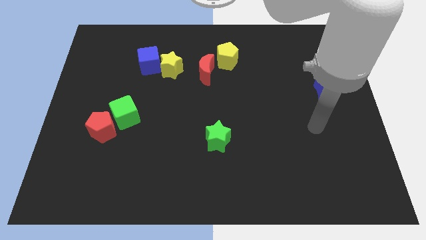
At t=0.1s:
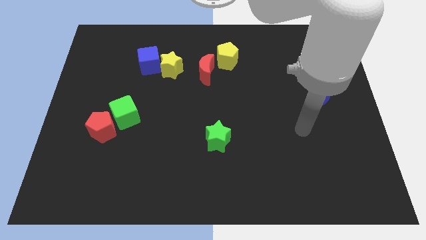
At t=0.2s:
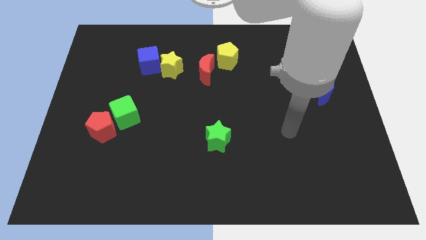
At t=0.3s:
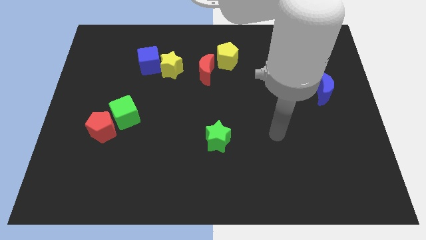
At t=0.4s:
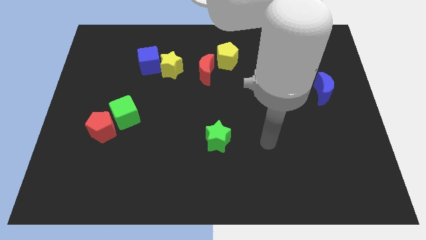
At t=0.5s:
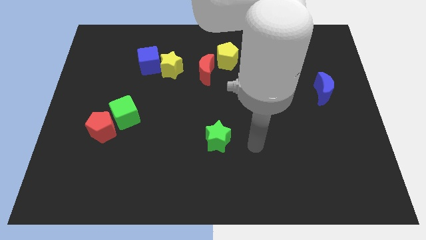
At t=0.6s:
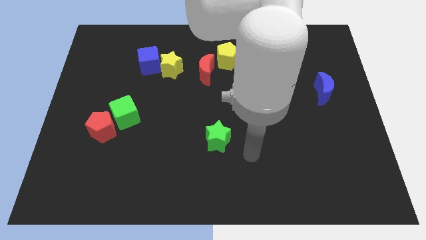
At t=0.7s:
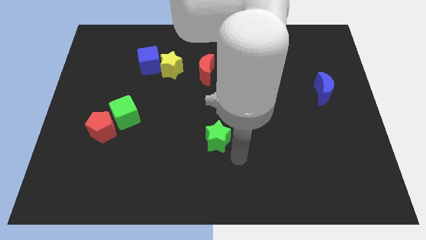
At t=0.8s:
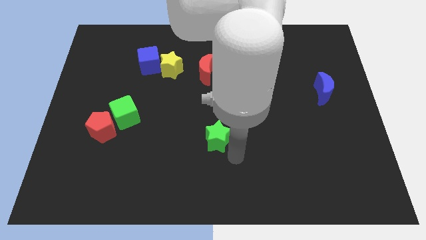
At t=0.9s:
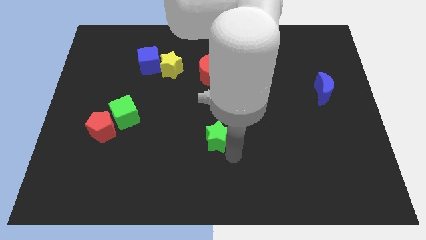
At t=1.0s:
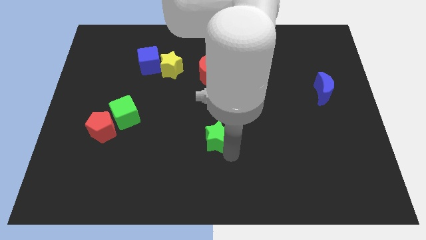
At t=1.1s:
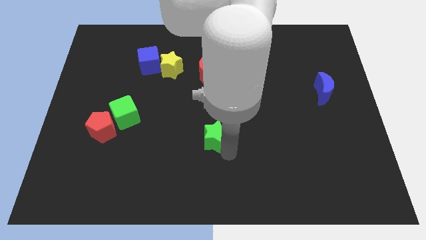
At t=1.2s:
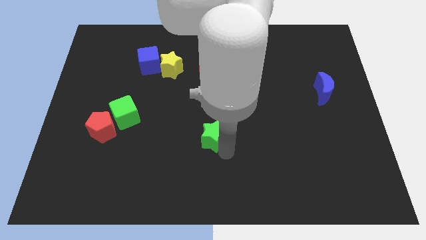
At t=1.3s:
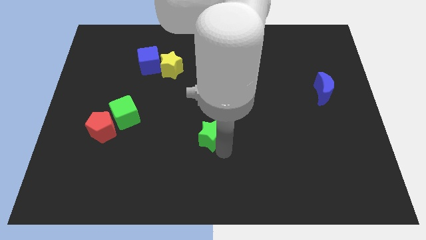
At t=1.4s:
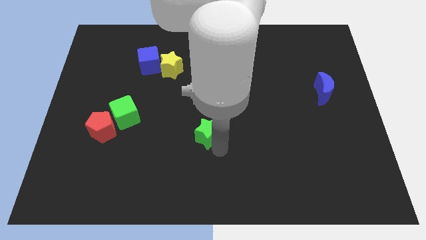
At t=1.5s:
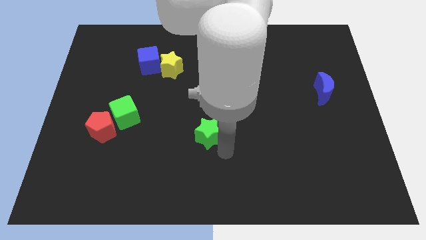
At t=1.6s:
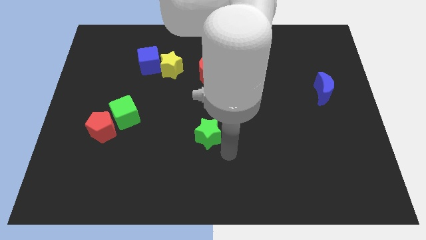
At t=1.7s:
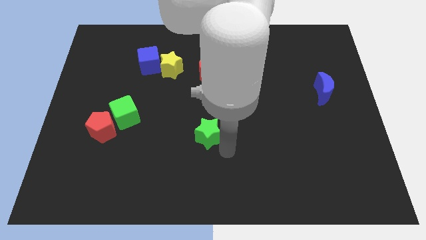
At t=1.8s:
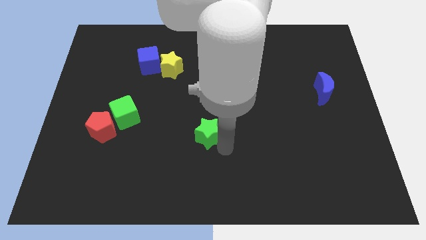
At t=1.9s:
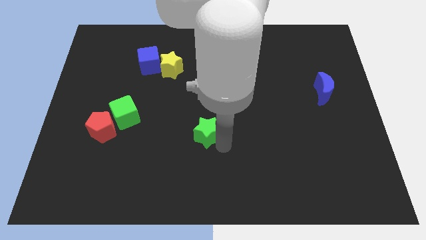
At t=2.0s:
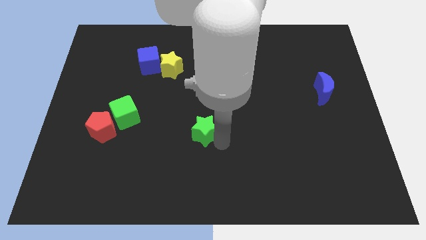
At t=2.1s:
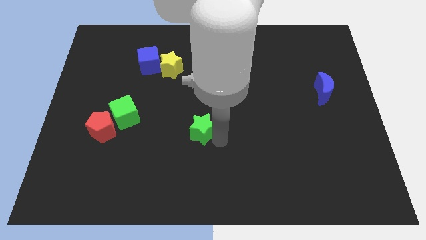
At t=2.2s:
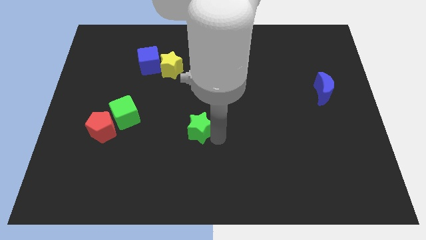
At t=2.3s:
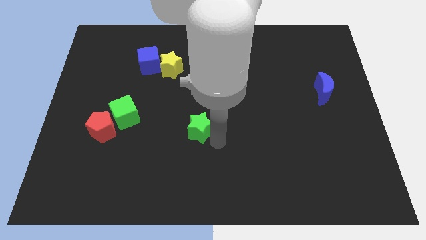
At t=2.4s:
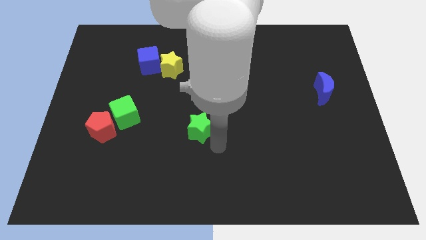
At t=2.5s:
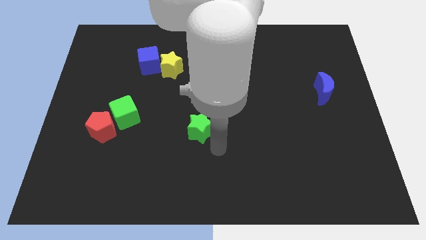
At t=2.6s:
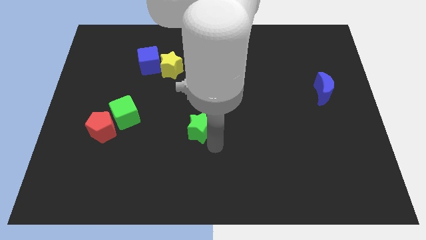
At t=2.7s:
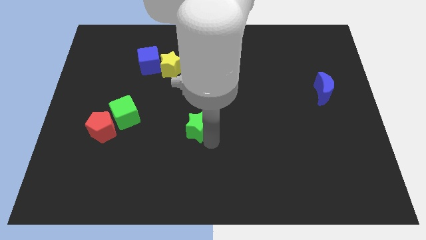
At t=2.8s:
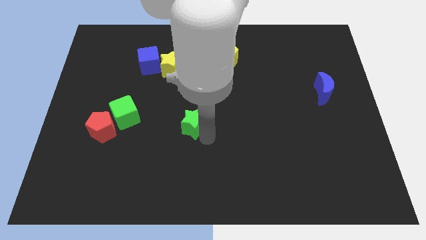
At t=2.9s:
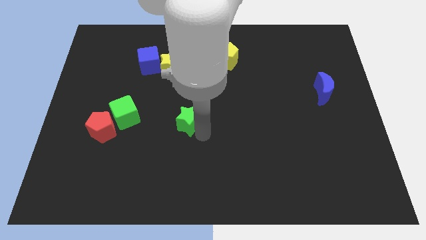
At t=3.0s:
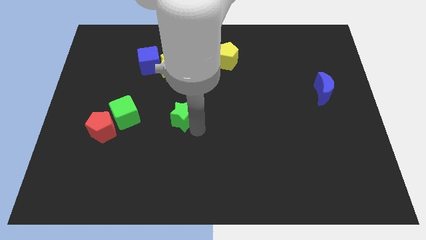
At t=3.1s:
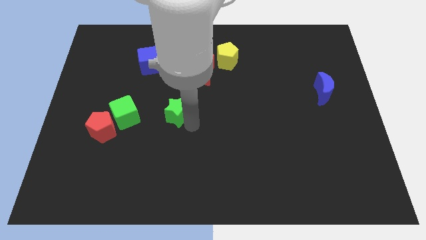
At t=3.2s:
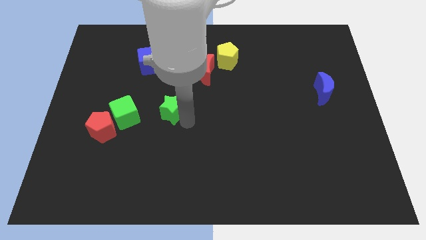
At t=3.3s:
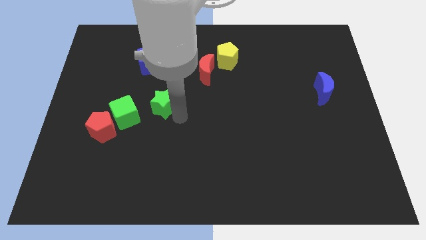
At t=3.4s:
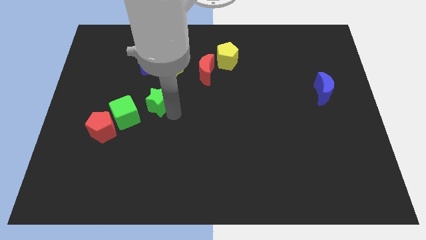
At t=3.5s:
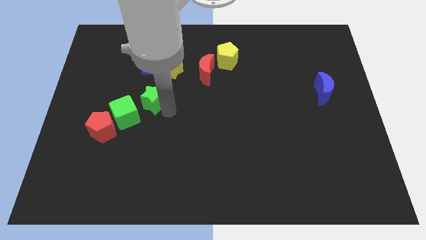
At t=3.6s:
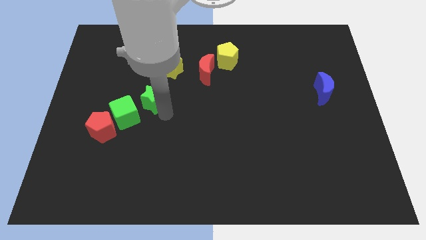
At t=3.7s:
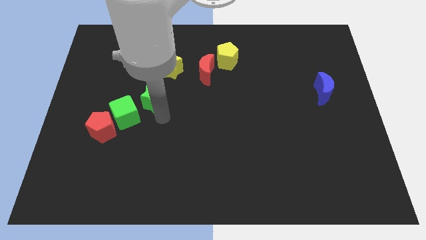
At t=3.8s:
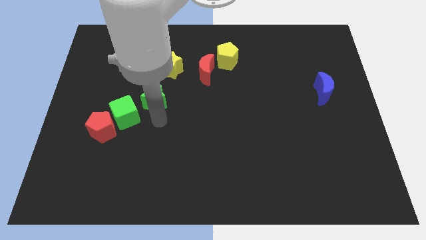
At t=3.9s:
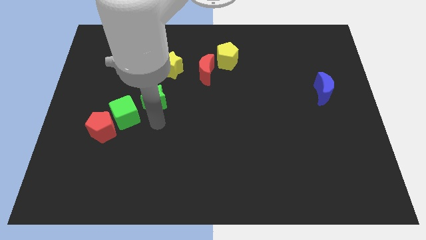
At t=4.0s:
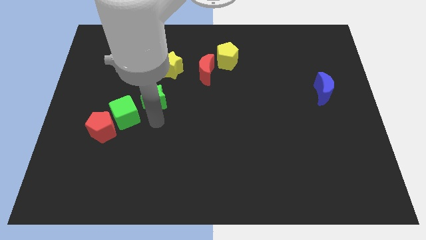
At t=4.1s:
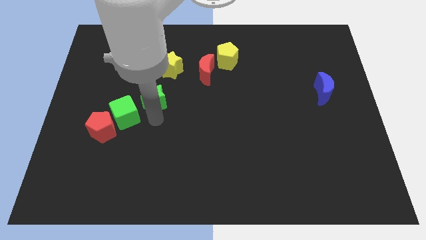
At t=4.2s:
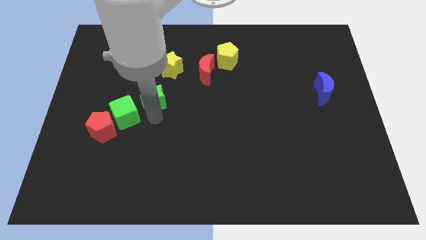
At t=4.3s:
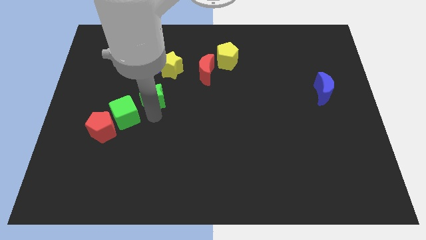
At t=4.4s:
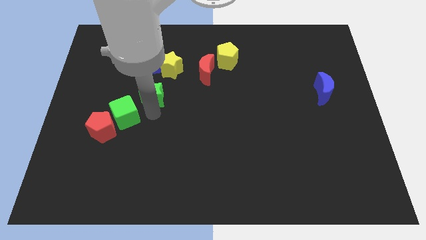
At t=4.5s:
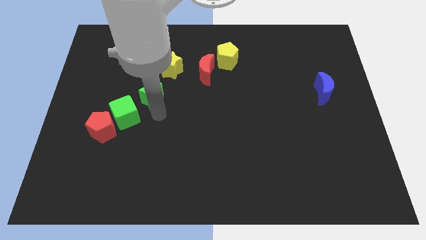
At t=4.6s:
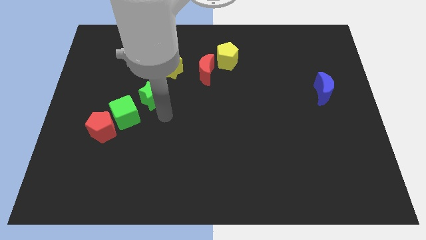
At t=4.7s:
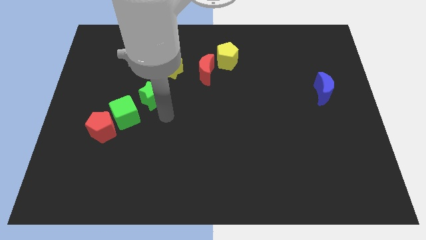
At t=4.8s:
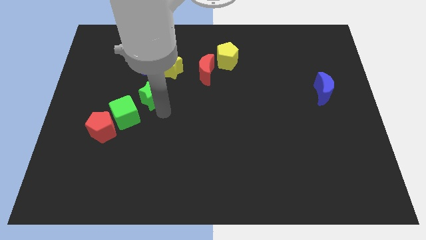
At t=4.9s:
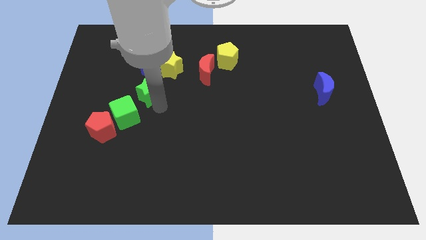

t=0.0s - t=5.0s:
slide the green star upwards and then to the left

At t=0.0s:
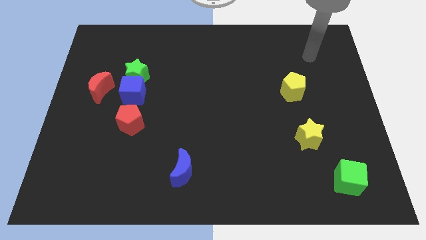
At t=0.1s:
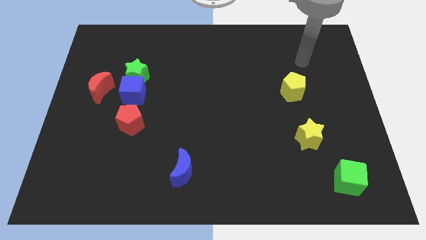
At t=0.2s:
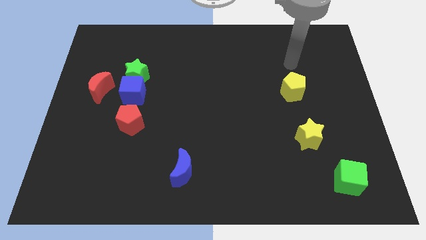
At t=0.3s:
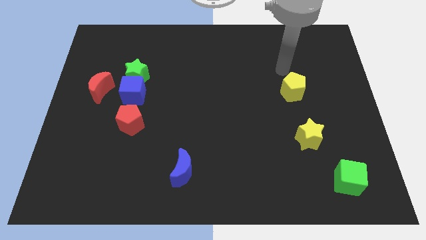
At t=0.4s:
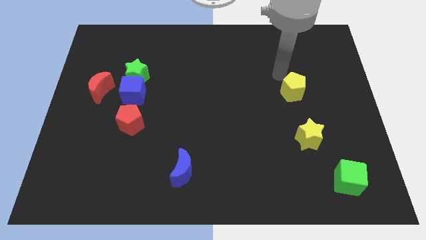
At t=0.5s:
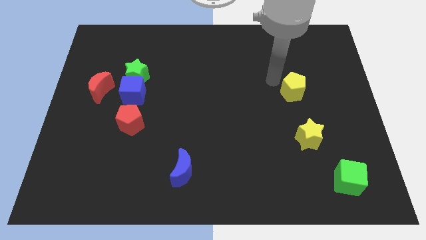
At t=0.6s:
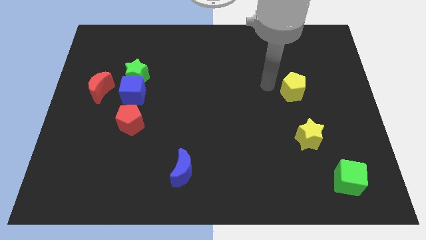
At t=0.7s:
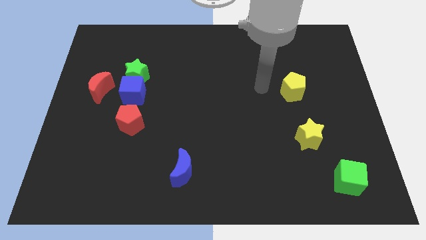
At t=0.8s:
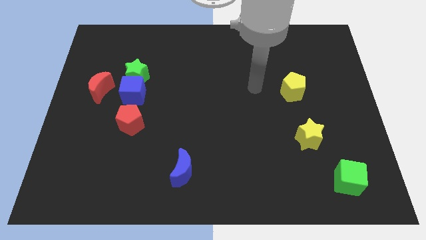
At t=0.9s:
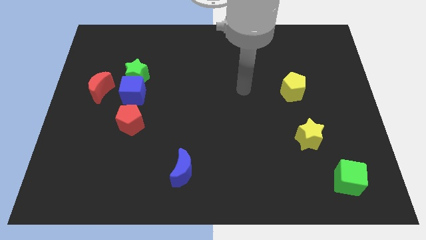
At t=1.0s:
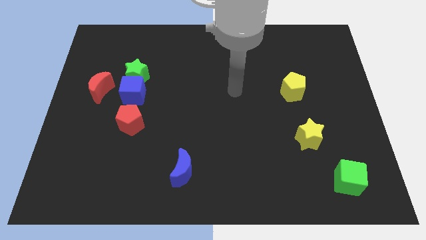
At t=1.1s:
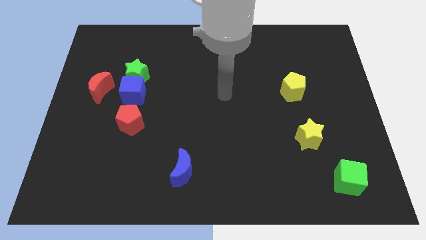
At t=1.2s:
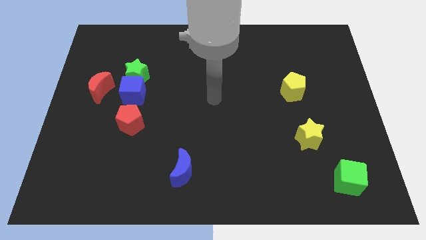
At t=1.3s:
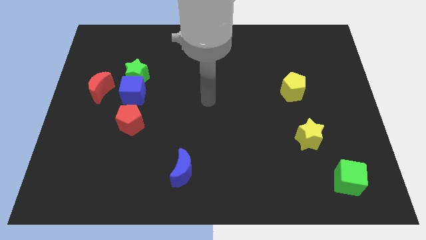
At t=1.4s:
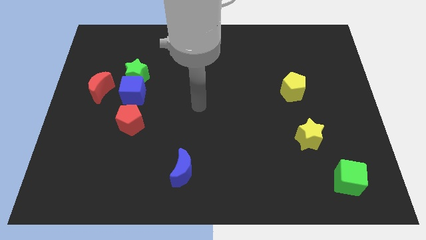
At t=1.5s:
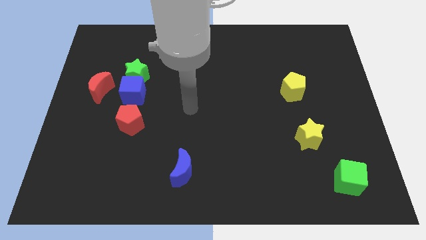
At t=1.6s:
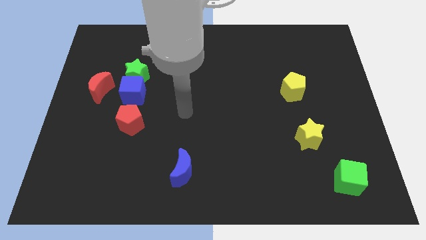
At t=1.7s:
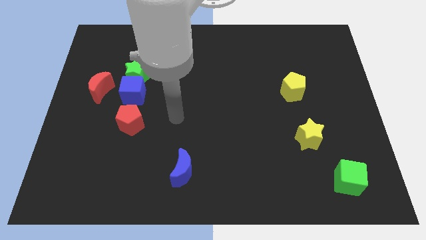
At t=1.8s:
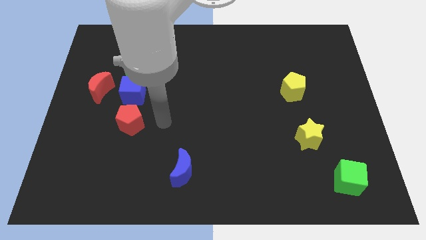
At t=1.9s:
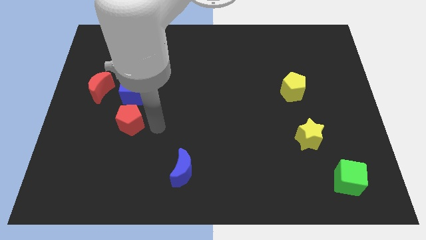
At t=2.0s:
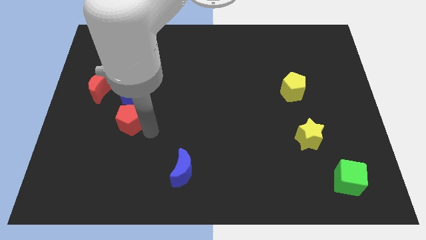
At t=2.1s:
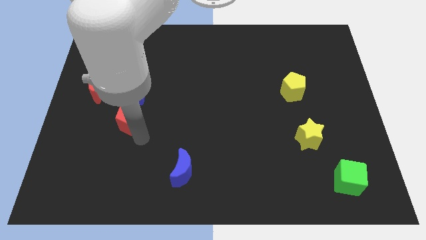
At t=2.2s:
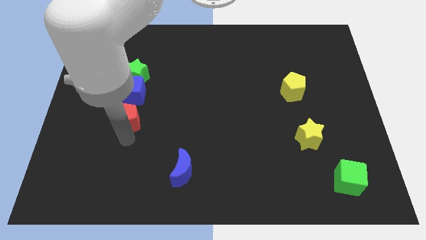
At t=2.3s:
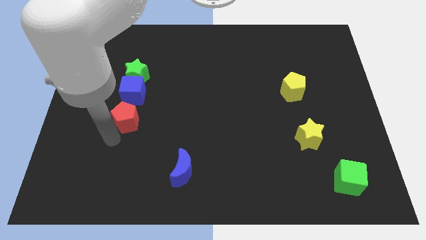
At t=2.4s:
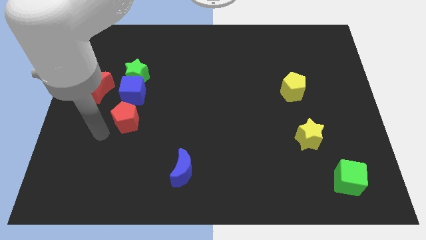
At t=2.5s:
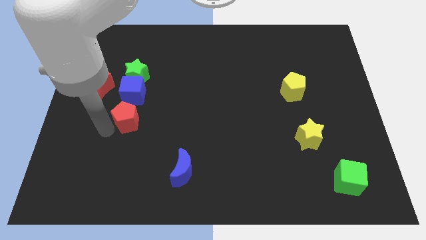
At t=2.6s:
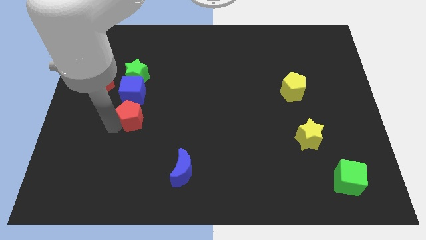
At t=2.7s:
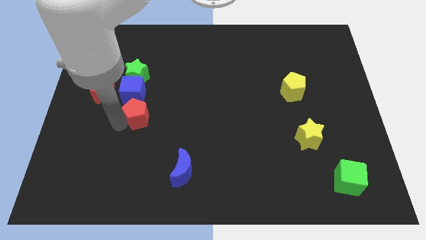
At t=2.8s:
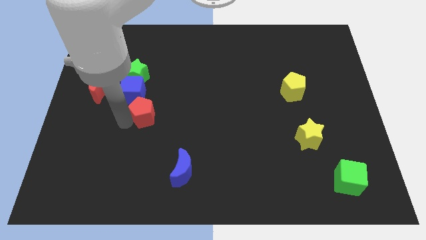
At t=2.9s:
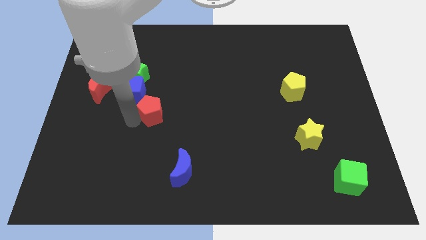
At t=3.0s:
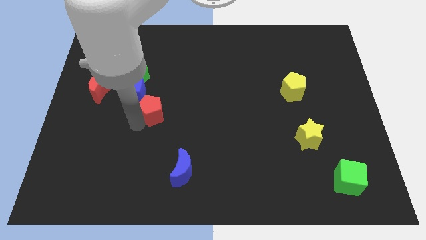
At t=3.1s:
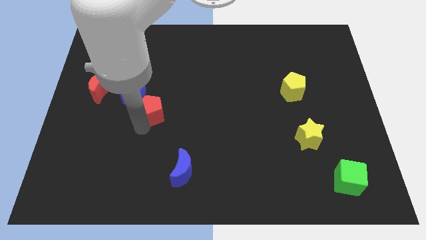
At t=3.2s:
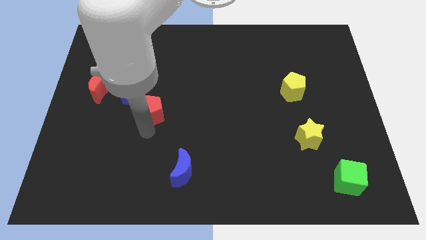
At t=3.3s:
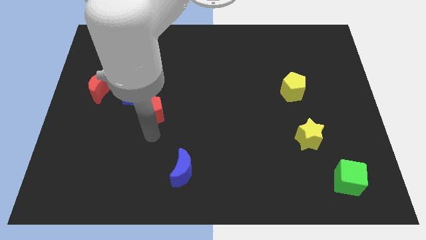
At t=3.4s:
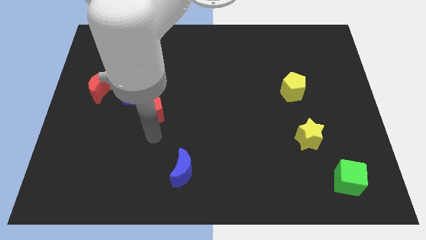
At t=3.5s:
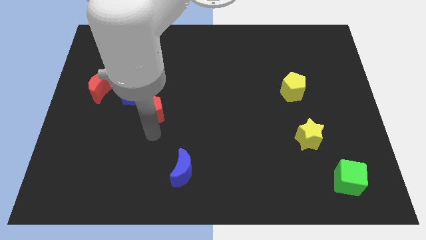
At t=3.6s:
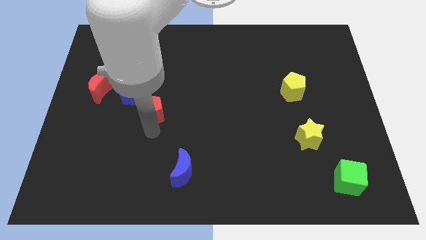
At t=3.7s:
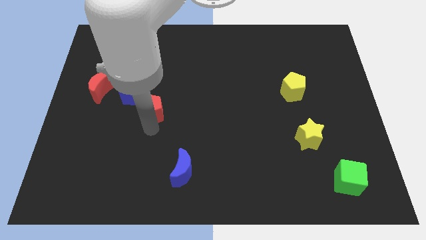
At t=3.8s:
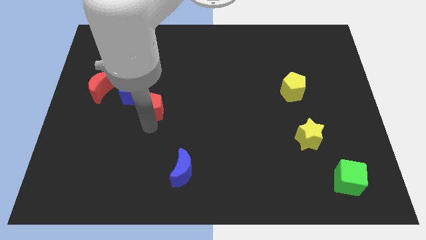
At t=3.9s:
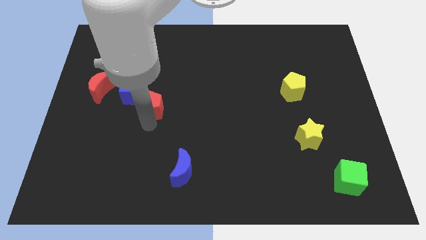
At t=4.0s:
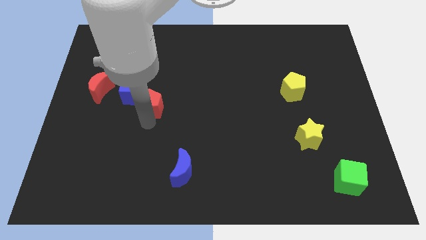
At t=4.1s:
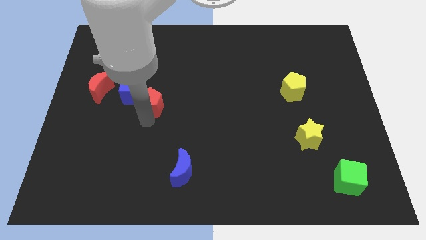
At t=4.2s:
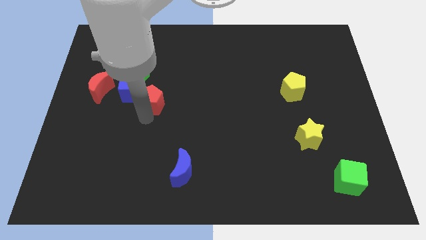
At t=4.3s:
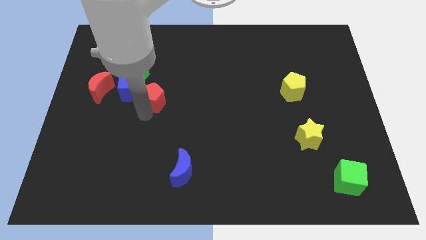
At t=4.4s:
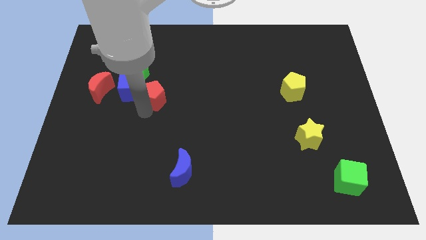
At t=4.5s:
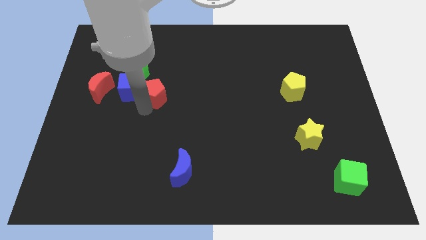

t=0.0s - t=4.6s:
slide the red pentagon upwards a bit
